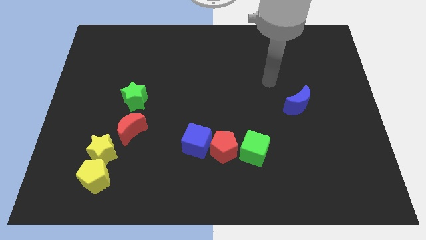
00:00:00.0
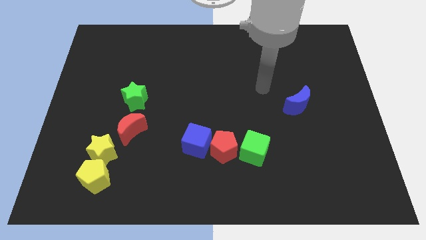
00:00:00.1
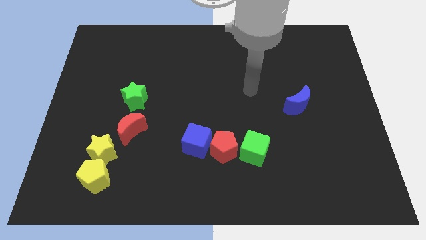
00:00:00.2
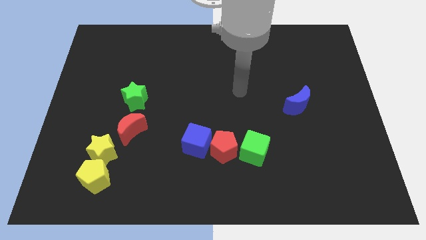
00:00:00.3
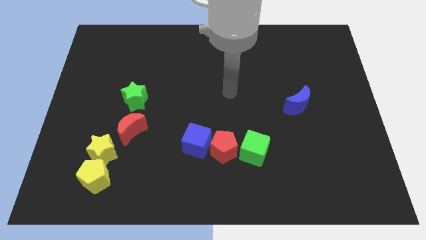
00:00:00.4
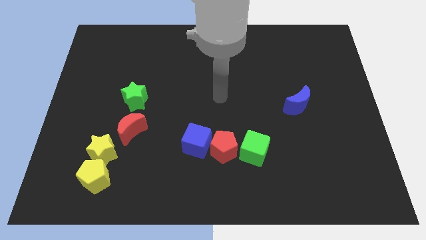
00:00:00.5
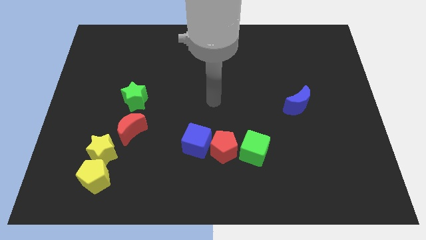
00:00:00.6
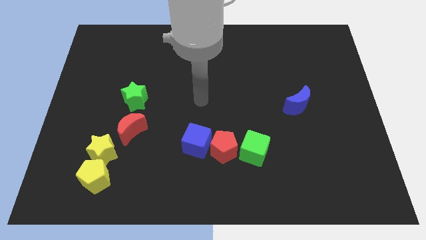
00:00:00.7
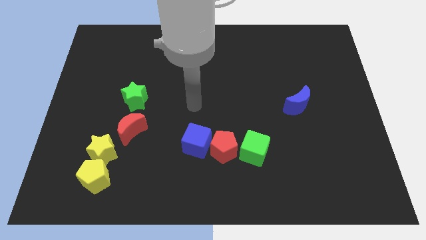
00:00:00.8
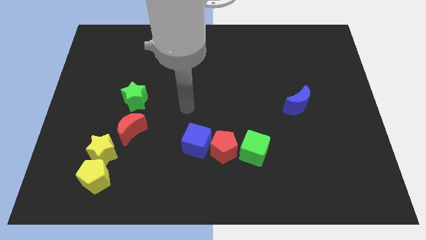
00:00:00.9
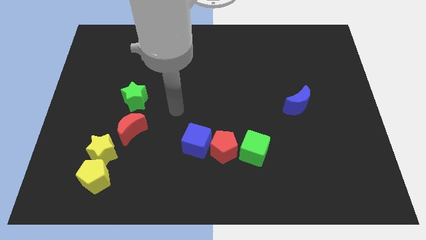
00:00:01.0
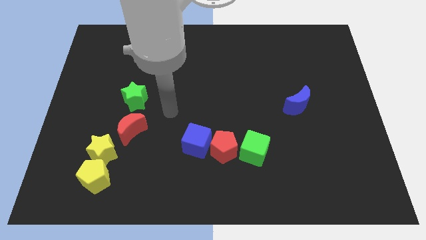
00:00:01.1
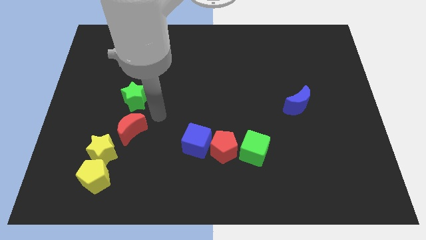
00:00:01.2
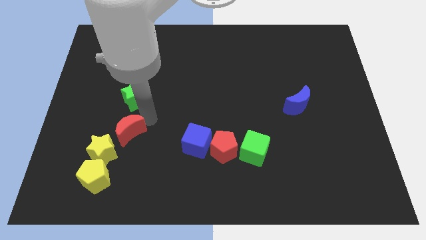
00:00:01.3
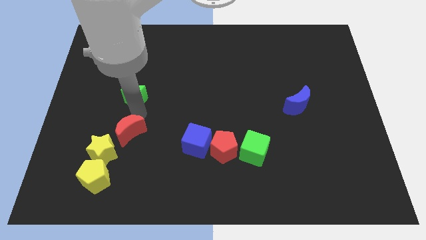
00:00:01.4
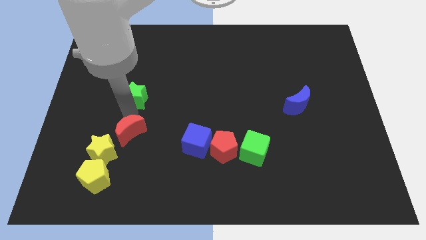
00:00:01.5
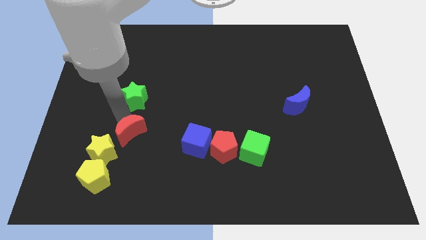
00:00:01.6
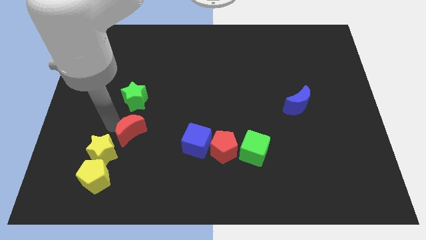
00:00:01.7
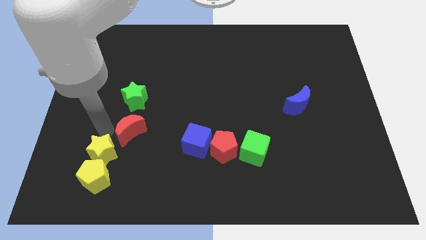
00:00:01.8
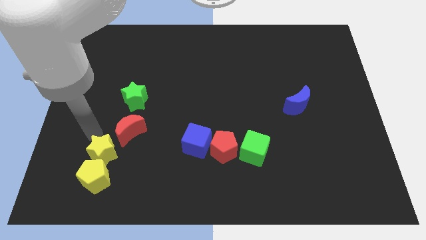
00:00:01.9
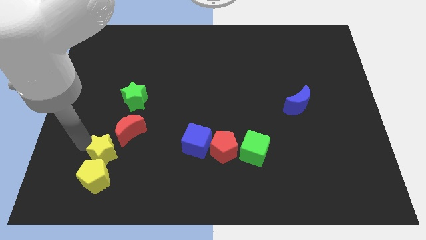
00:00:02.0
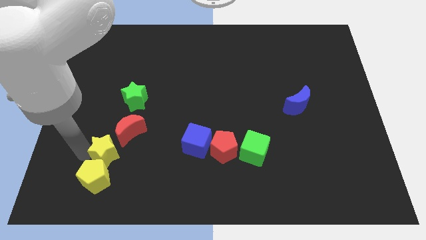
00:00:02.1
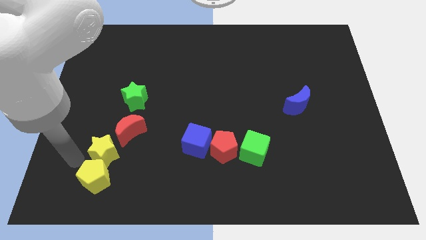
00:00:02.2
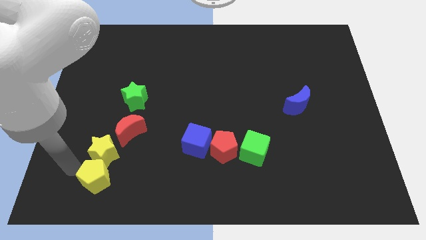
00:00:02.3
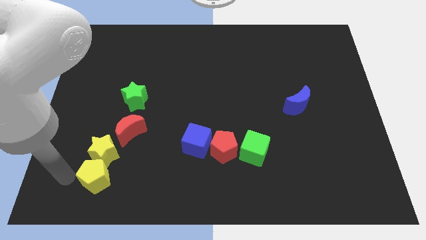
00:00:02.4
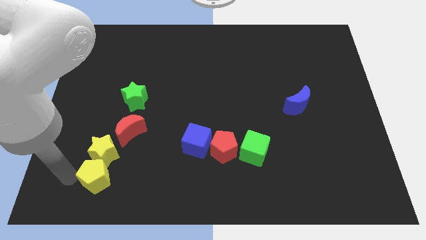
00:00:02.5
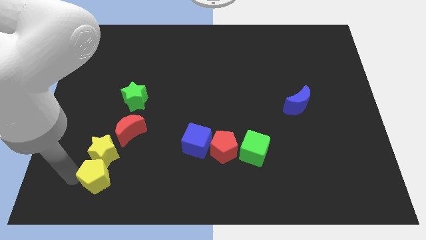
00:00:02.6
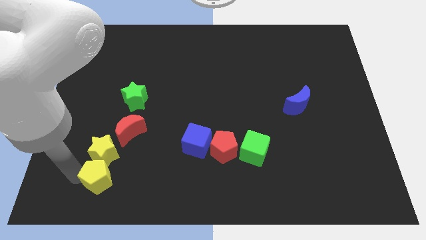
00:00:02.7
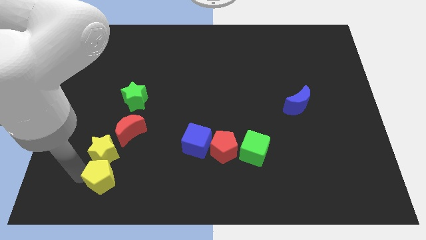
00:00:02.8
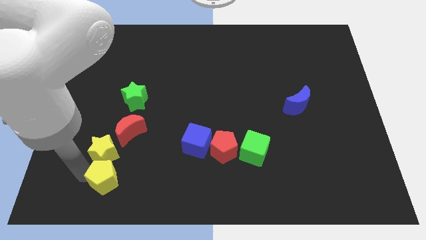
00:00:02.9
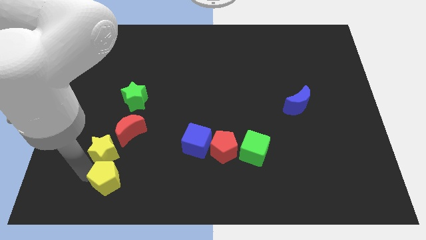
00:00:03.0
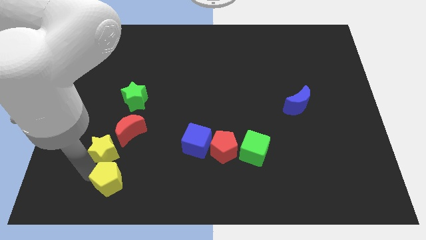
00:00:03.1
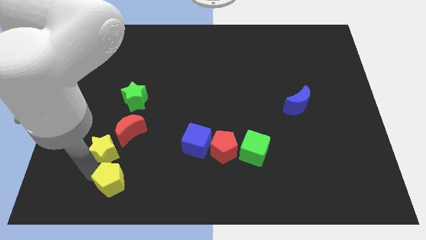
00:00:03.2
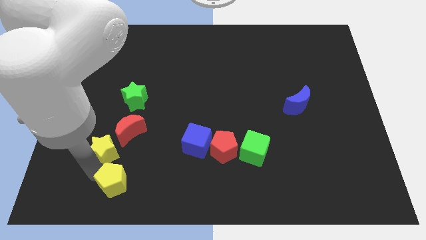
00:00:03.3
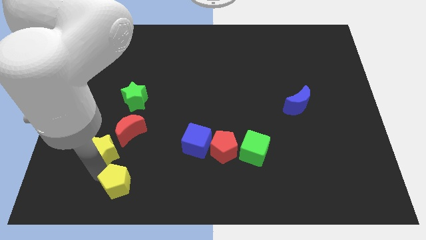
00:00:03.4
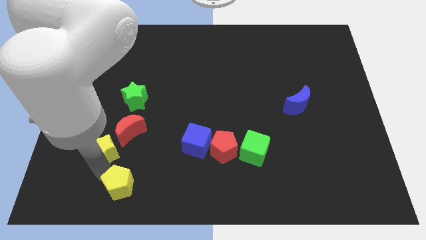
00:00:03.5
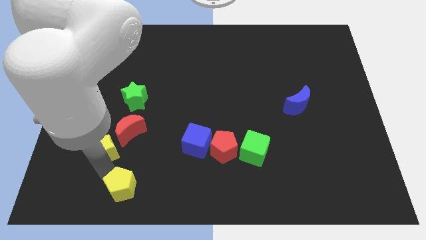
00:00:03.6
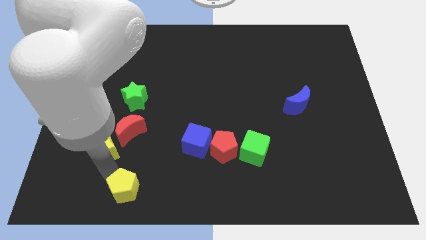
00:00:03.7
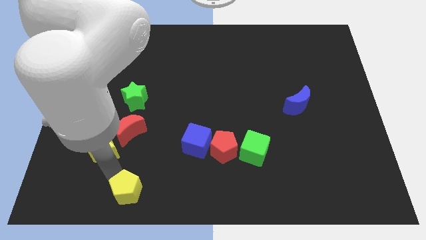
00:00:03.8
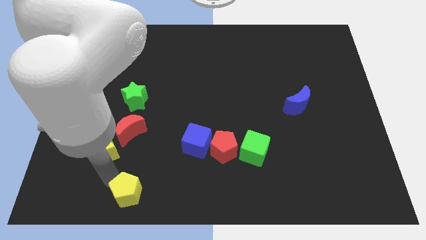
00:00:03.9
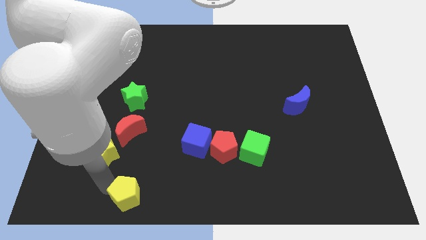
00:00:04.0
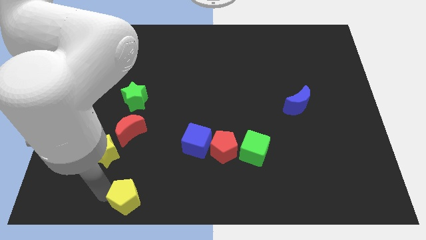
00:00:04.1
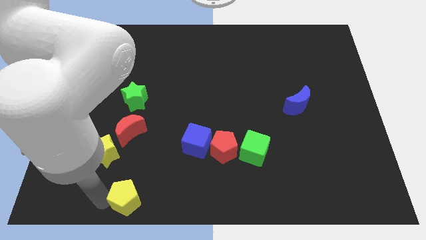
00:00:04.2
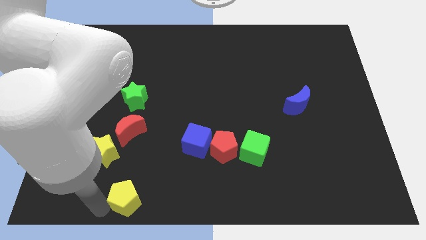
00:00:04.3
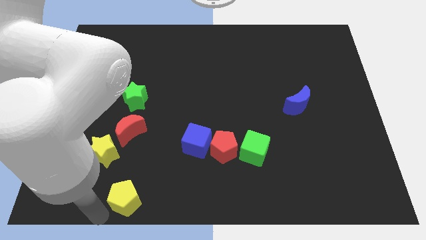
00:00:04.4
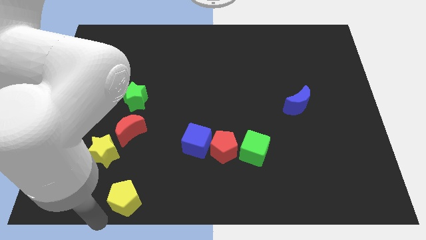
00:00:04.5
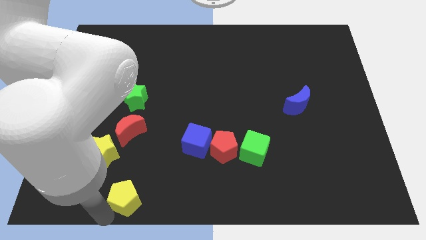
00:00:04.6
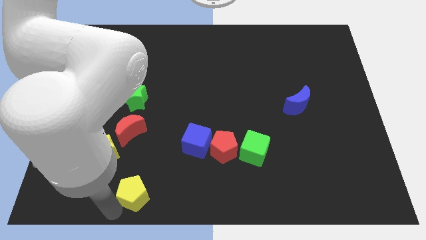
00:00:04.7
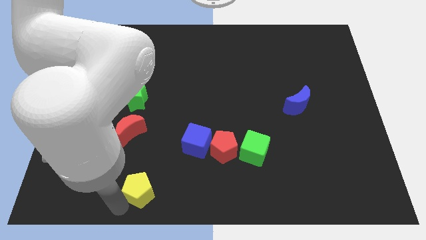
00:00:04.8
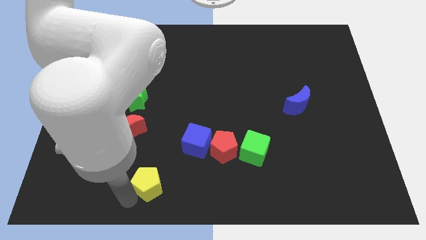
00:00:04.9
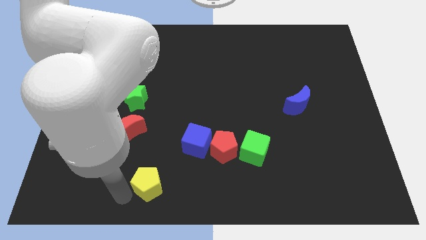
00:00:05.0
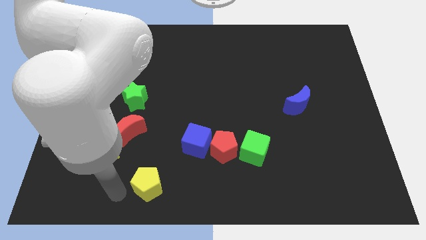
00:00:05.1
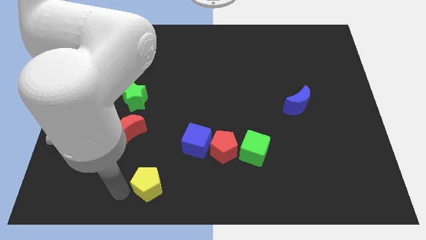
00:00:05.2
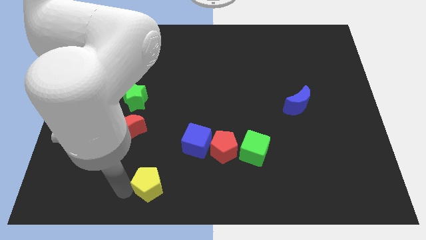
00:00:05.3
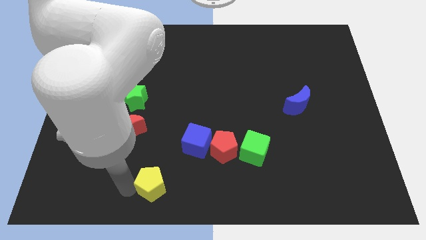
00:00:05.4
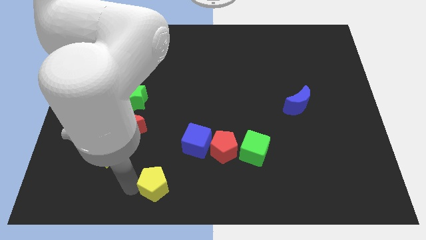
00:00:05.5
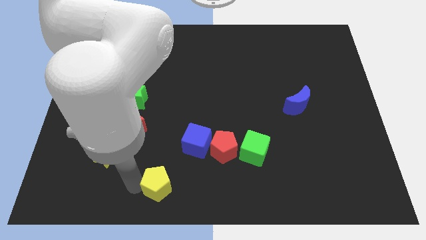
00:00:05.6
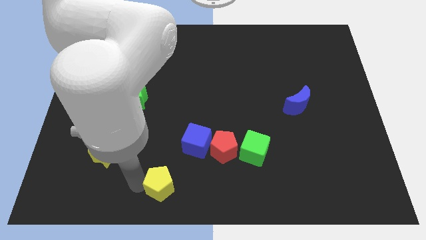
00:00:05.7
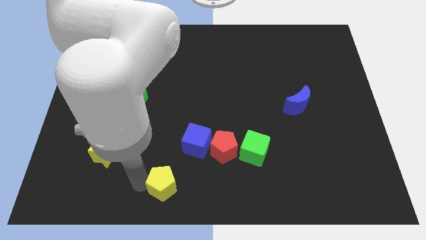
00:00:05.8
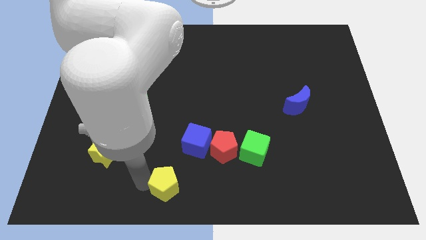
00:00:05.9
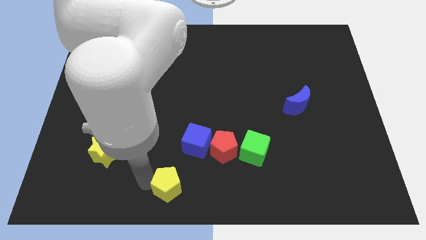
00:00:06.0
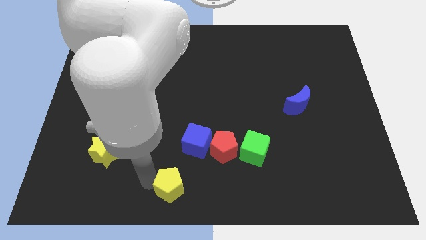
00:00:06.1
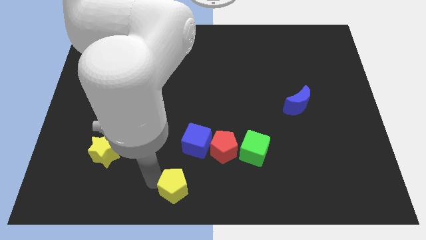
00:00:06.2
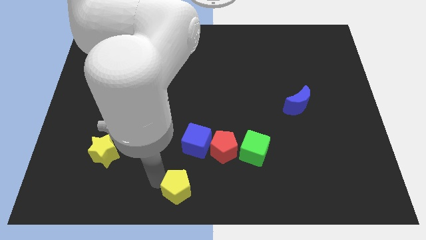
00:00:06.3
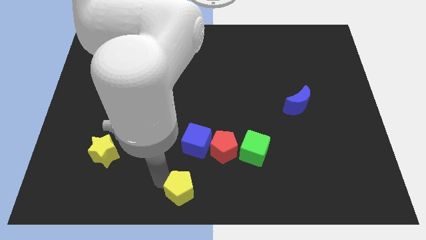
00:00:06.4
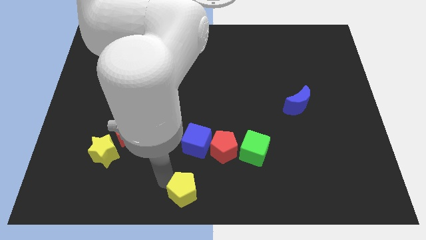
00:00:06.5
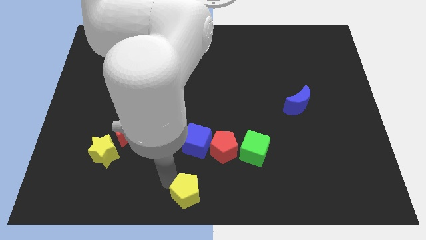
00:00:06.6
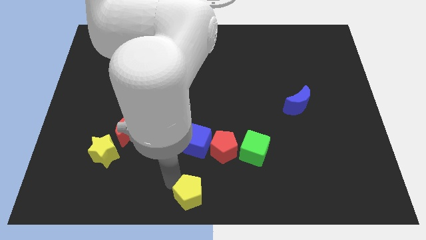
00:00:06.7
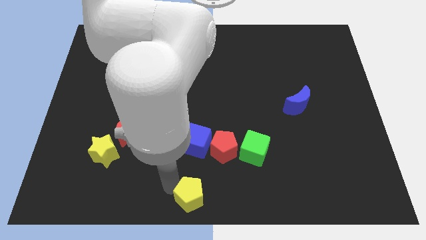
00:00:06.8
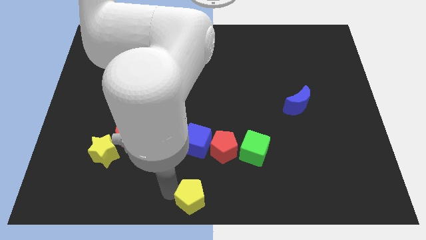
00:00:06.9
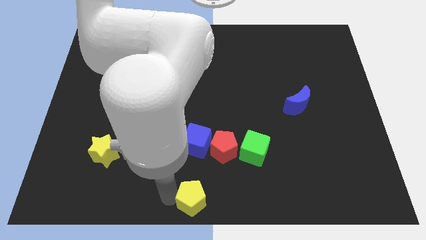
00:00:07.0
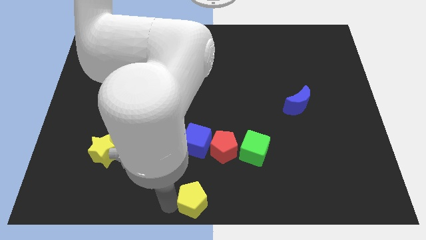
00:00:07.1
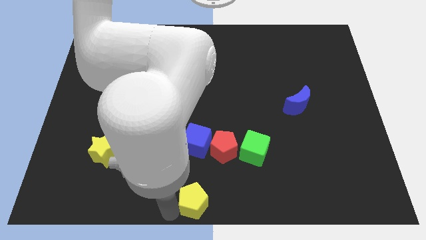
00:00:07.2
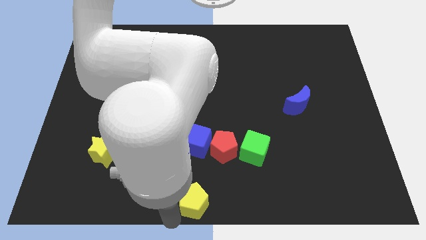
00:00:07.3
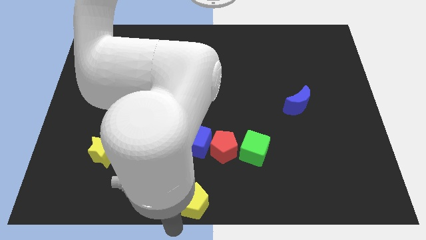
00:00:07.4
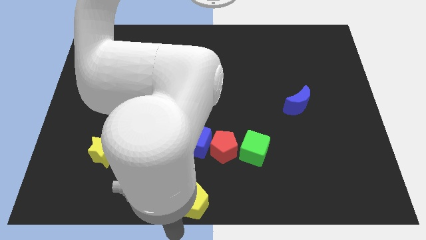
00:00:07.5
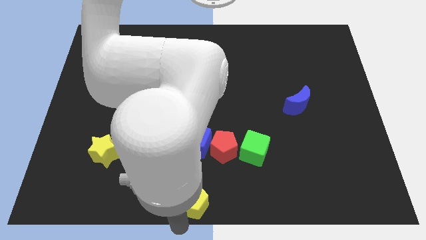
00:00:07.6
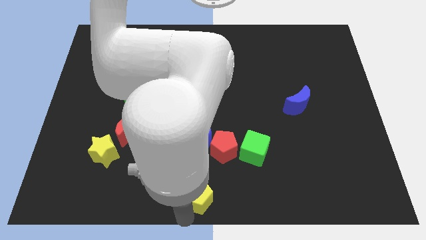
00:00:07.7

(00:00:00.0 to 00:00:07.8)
slide the yellow pentagon to the right
